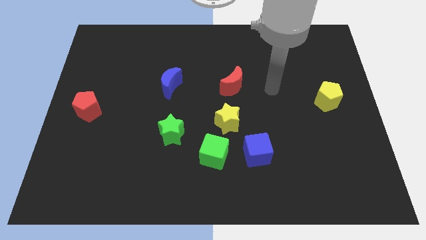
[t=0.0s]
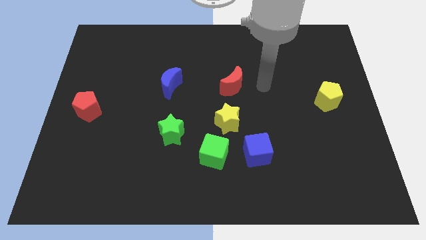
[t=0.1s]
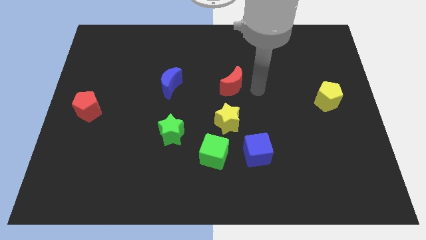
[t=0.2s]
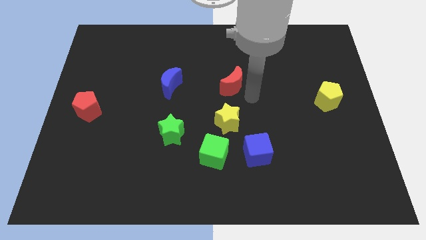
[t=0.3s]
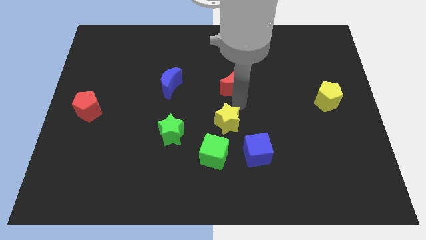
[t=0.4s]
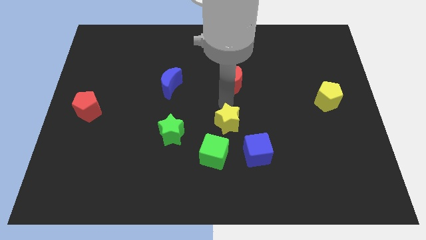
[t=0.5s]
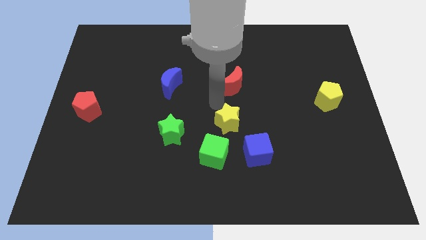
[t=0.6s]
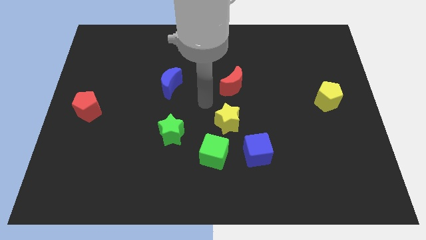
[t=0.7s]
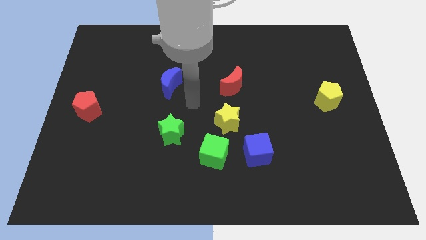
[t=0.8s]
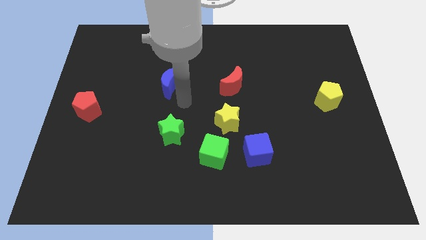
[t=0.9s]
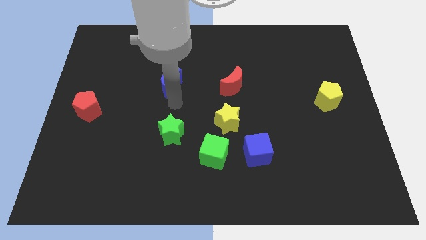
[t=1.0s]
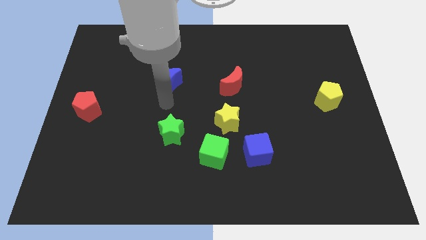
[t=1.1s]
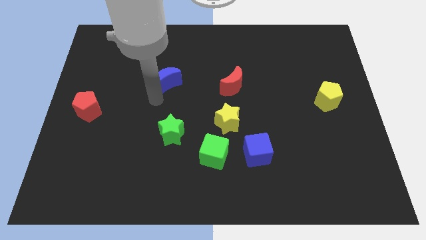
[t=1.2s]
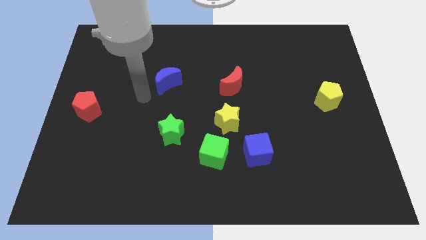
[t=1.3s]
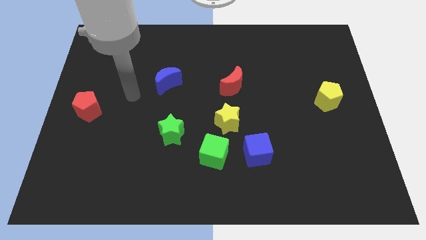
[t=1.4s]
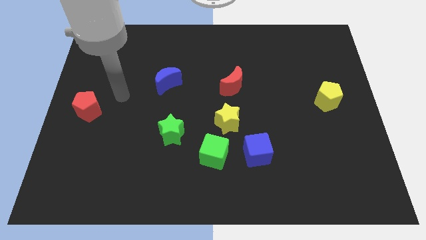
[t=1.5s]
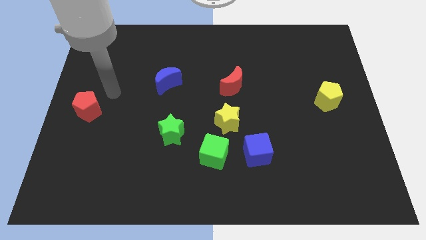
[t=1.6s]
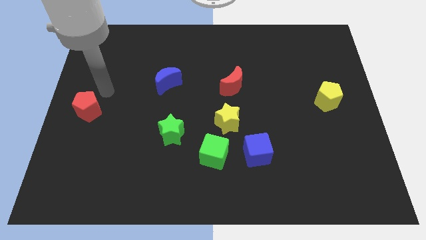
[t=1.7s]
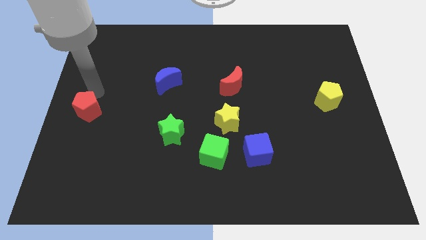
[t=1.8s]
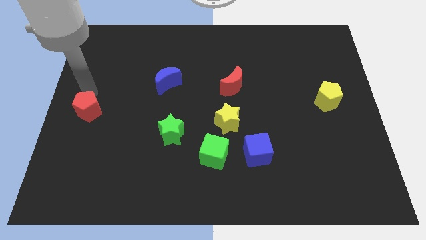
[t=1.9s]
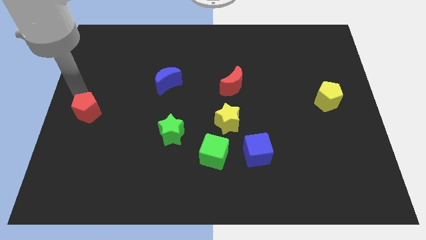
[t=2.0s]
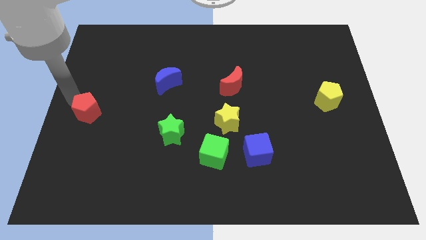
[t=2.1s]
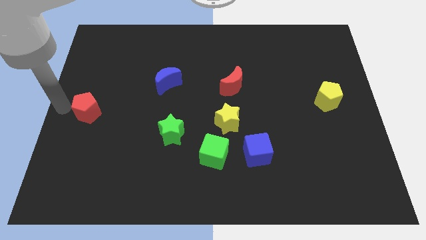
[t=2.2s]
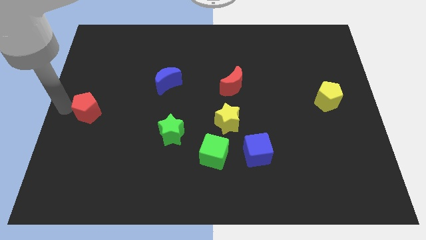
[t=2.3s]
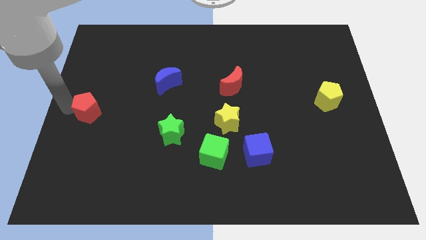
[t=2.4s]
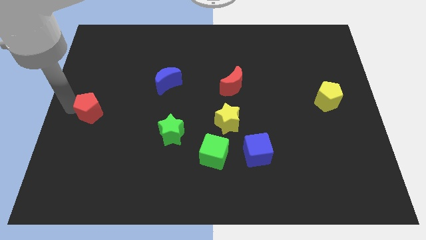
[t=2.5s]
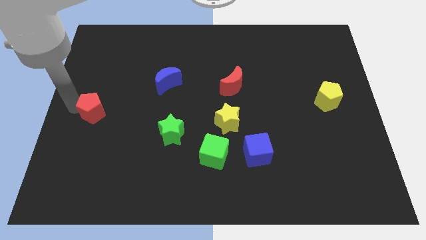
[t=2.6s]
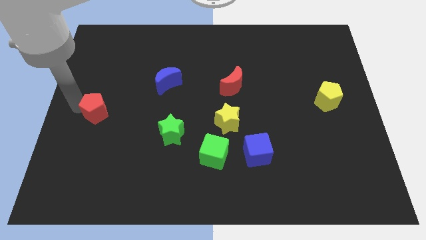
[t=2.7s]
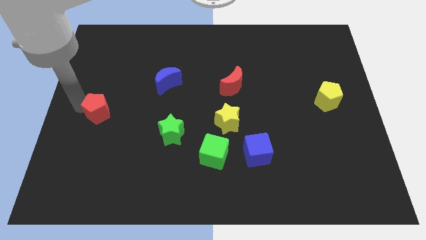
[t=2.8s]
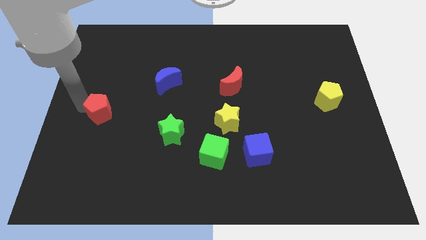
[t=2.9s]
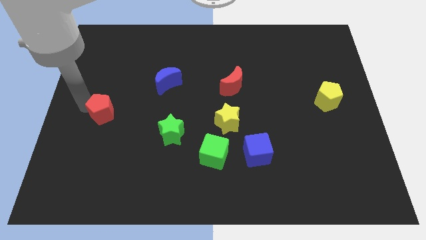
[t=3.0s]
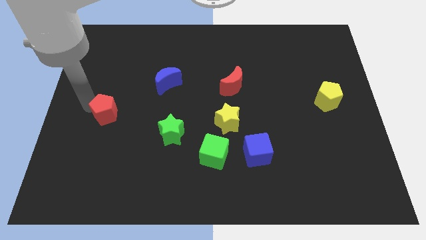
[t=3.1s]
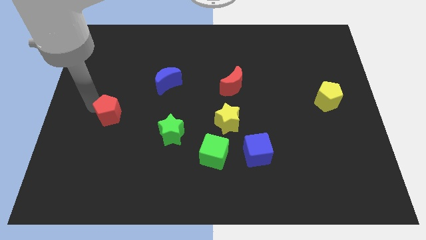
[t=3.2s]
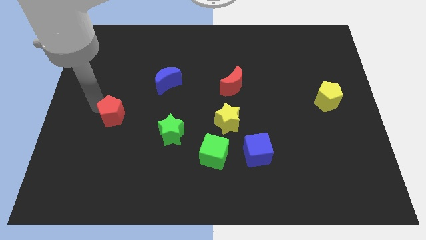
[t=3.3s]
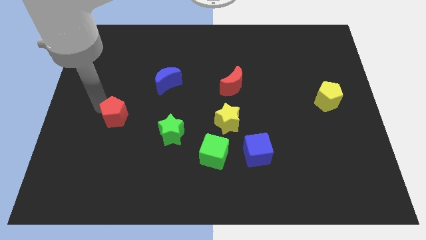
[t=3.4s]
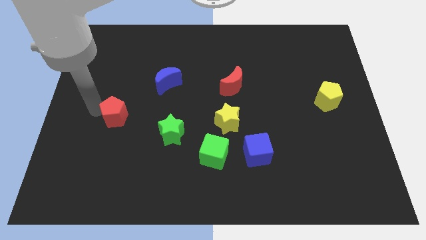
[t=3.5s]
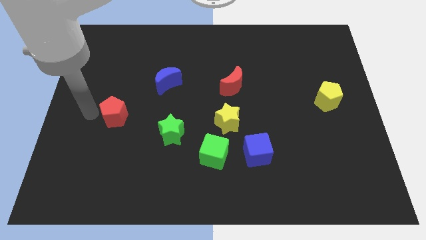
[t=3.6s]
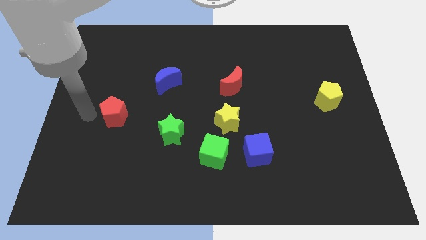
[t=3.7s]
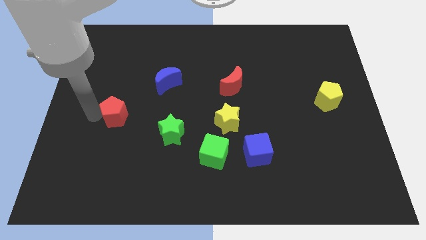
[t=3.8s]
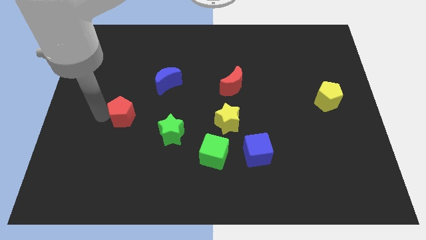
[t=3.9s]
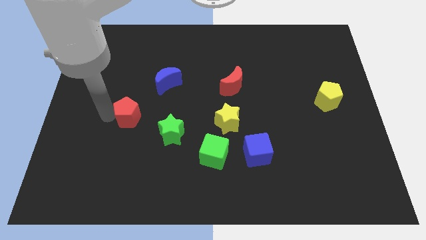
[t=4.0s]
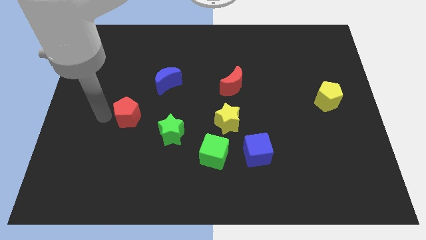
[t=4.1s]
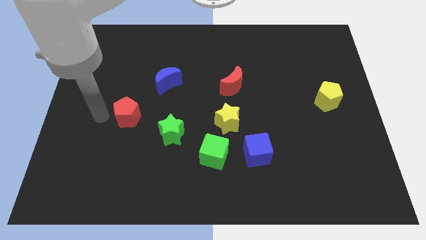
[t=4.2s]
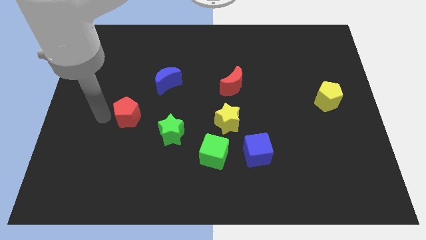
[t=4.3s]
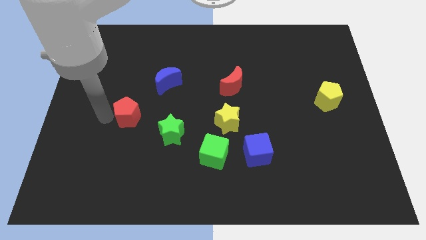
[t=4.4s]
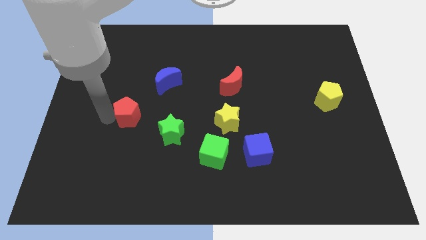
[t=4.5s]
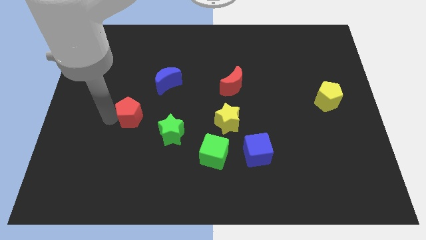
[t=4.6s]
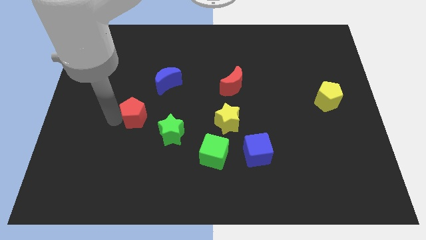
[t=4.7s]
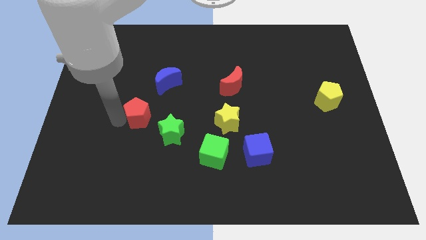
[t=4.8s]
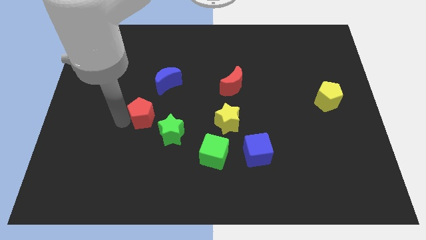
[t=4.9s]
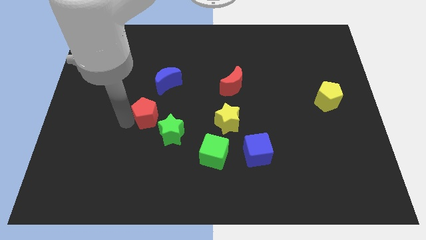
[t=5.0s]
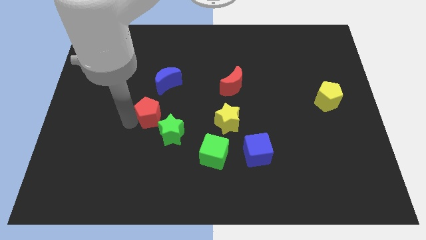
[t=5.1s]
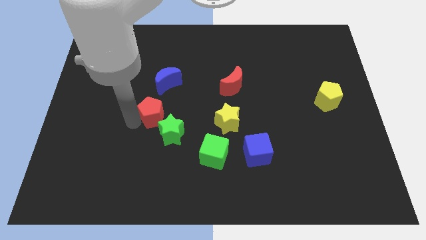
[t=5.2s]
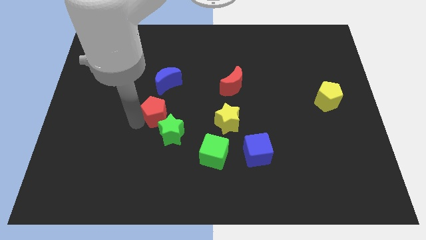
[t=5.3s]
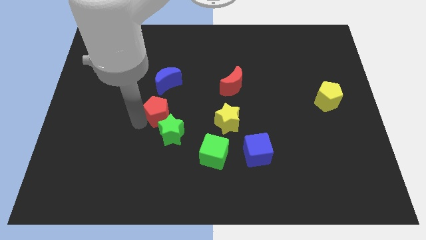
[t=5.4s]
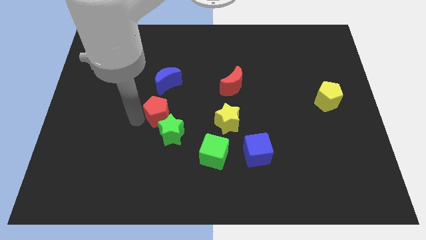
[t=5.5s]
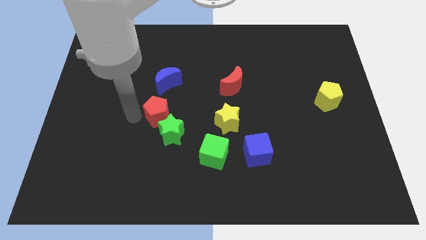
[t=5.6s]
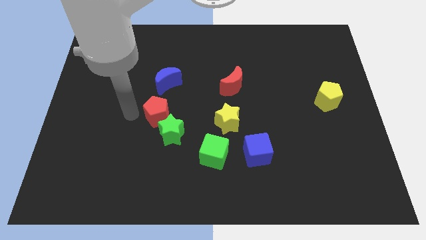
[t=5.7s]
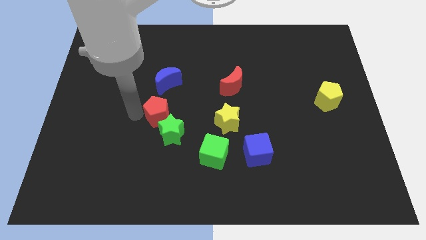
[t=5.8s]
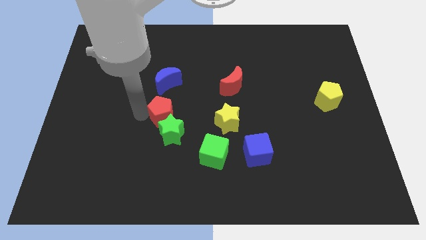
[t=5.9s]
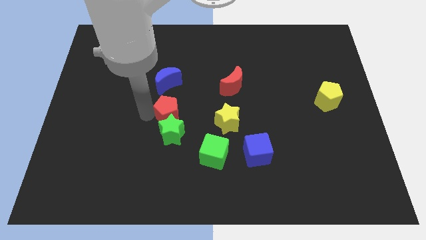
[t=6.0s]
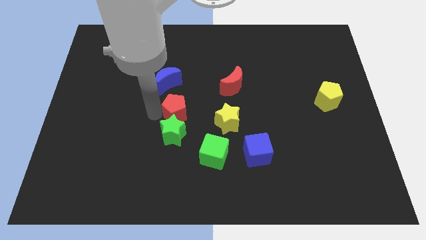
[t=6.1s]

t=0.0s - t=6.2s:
push the red pentagon right

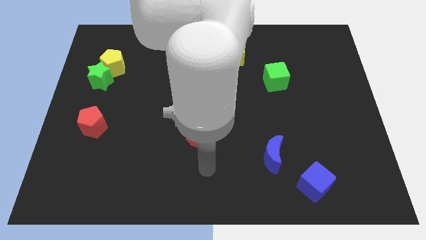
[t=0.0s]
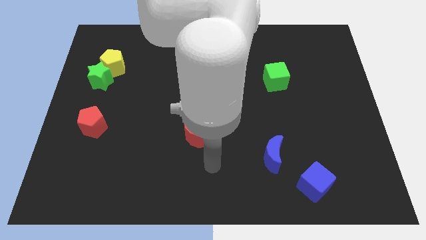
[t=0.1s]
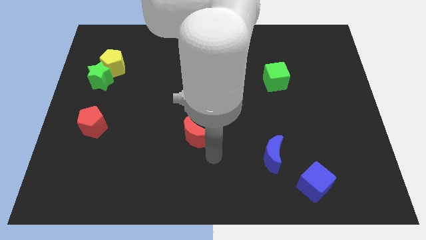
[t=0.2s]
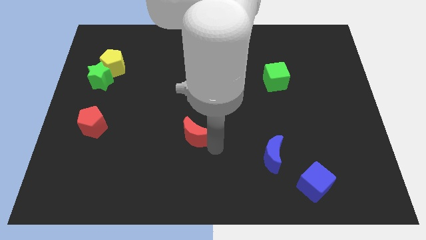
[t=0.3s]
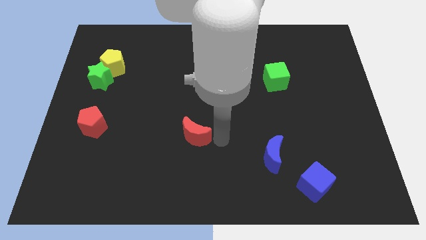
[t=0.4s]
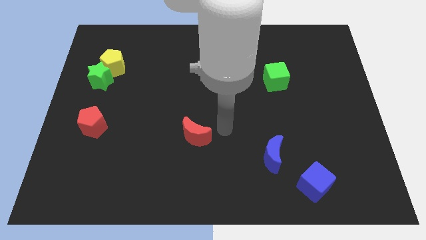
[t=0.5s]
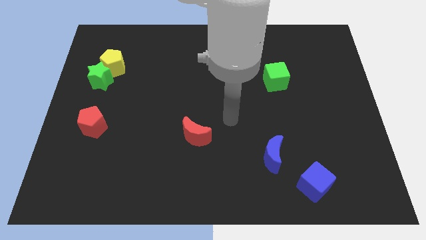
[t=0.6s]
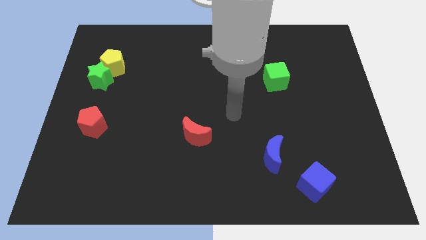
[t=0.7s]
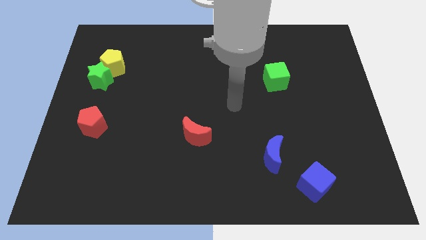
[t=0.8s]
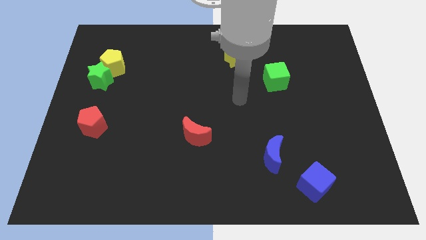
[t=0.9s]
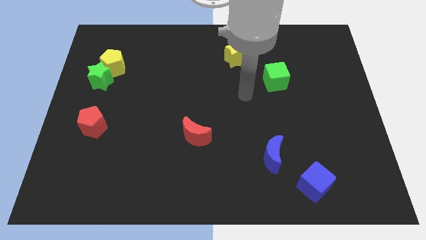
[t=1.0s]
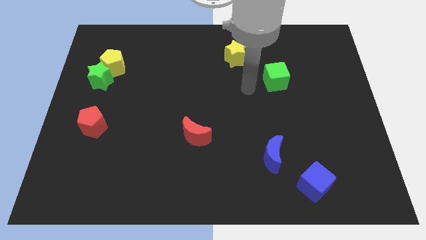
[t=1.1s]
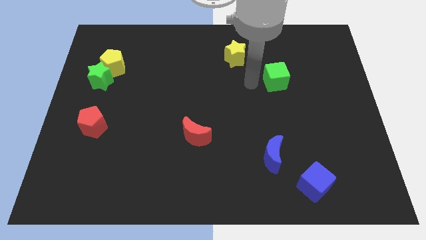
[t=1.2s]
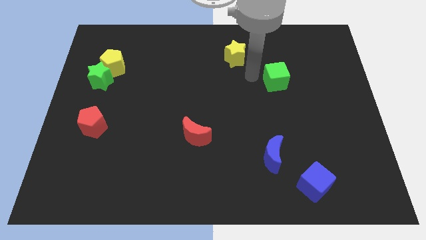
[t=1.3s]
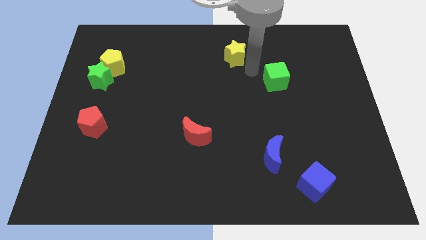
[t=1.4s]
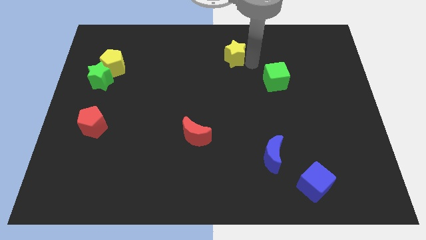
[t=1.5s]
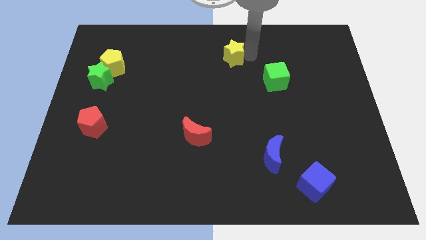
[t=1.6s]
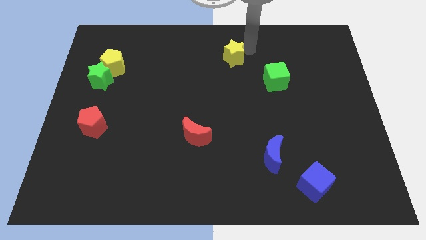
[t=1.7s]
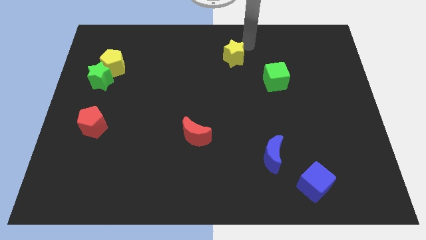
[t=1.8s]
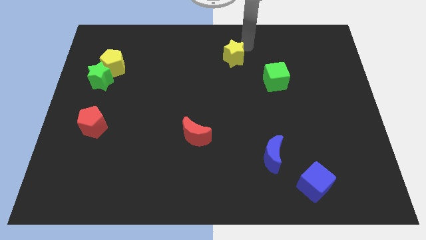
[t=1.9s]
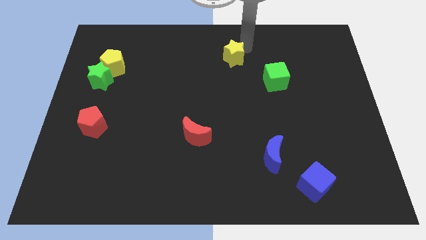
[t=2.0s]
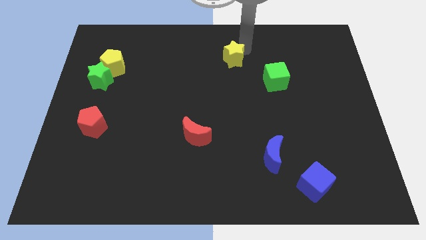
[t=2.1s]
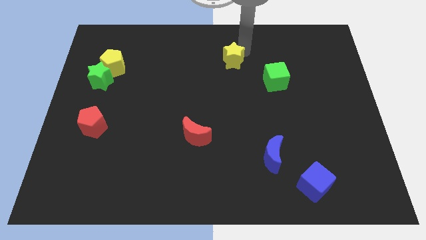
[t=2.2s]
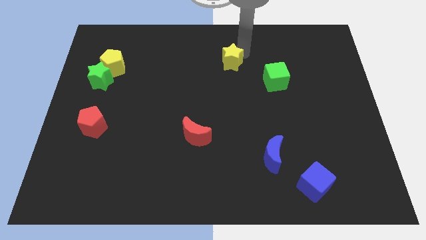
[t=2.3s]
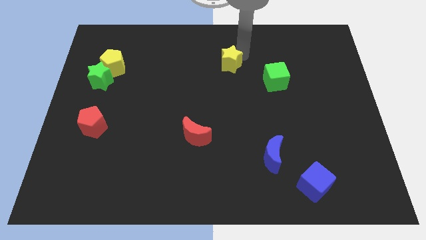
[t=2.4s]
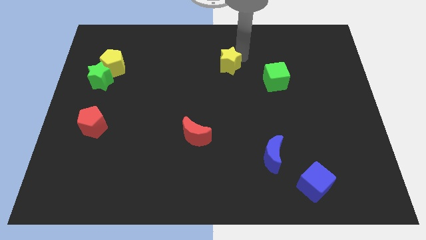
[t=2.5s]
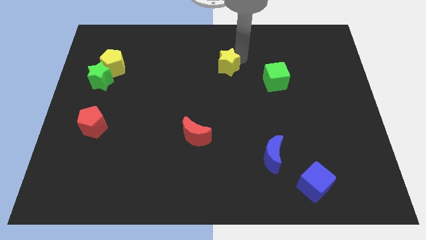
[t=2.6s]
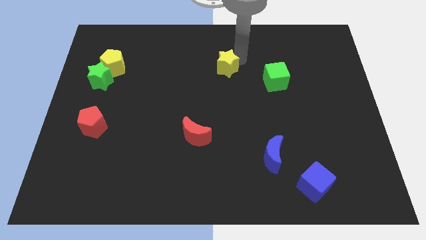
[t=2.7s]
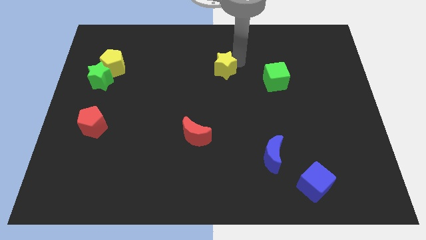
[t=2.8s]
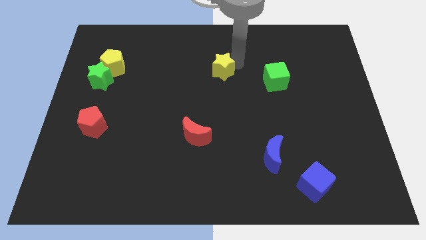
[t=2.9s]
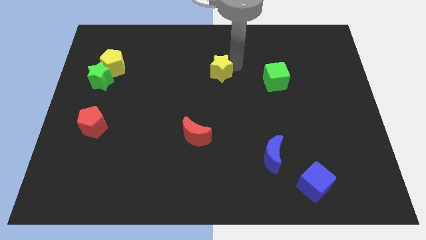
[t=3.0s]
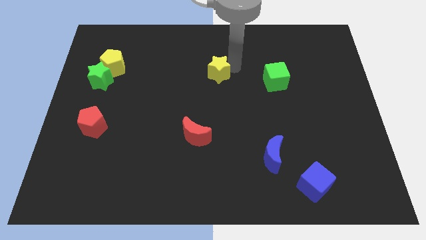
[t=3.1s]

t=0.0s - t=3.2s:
slightly push the yellow star downwards and to the left diagonally
